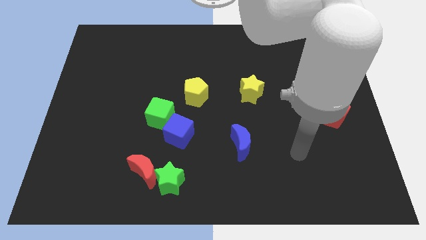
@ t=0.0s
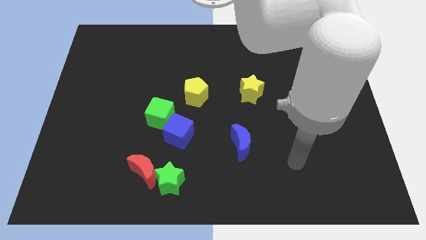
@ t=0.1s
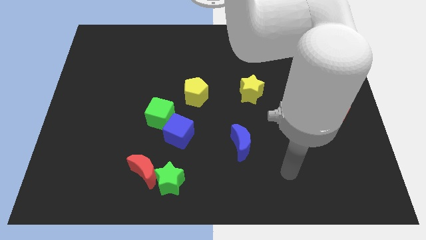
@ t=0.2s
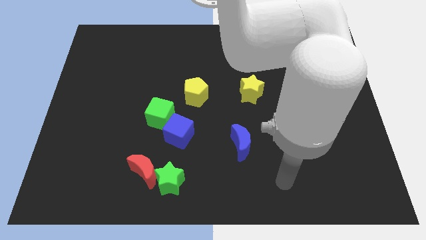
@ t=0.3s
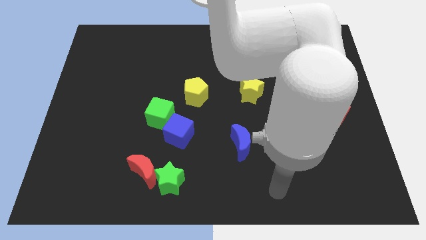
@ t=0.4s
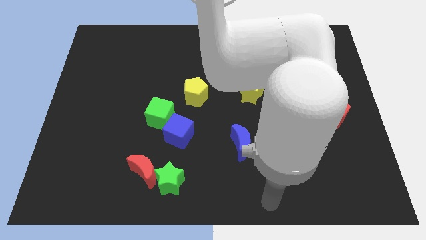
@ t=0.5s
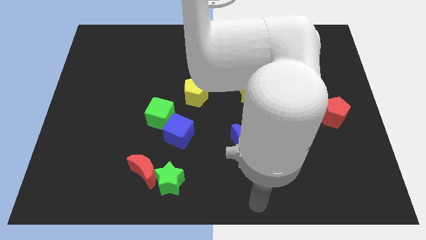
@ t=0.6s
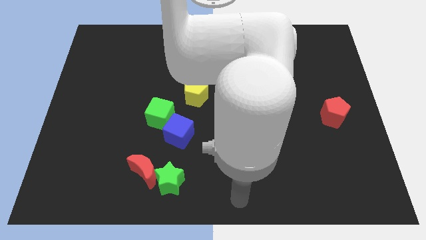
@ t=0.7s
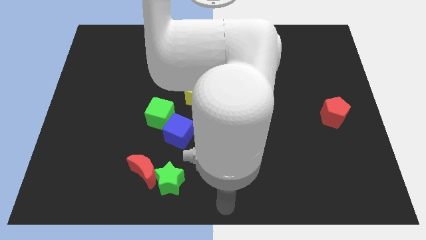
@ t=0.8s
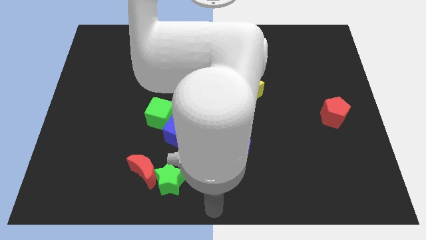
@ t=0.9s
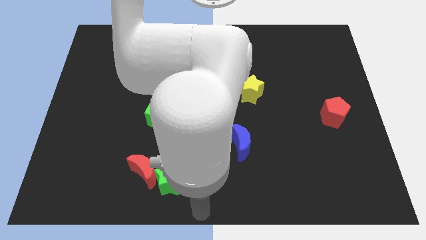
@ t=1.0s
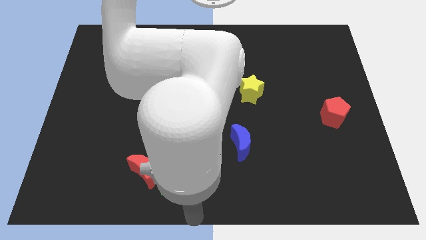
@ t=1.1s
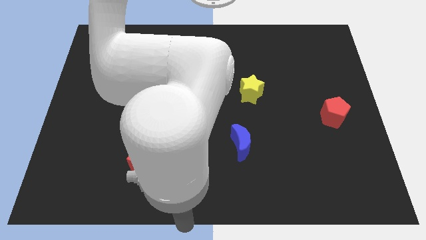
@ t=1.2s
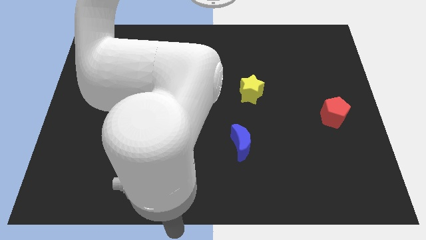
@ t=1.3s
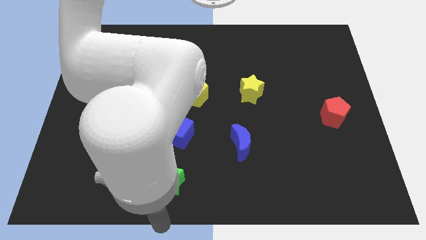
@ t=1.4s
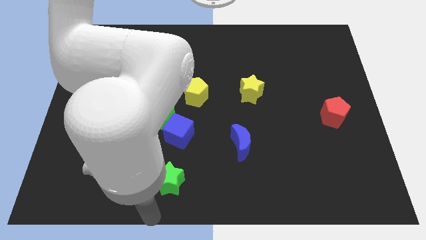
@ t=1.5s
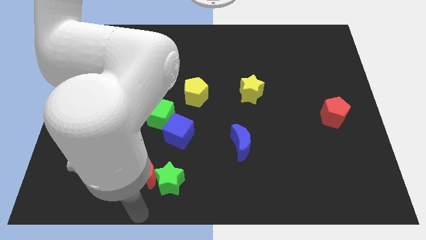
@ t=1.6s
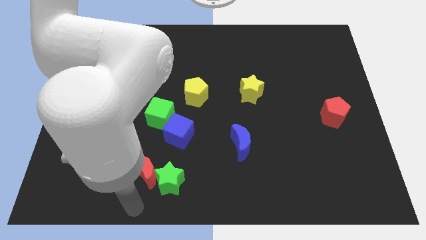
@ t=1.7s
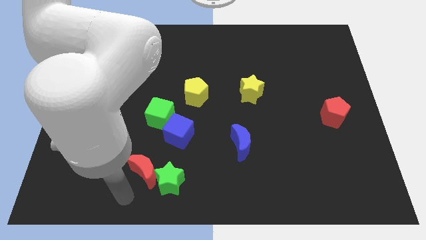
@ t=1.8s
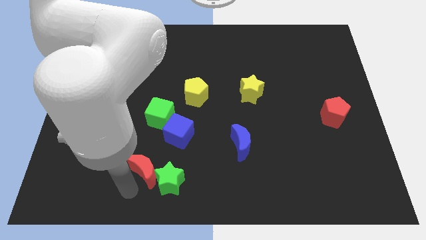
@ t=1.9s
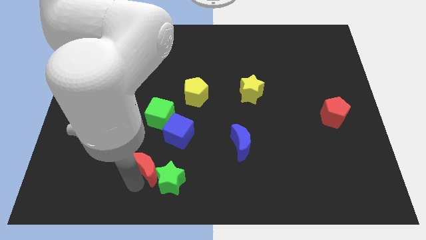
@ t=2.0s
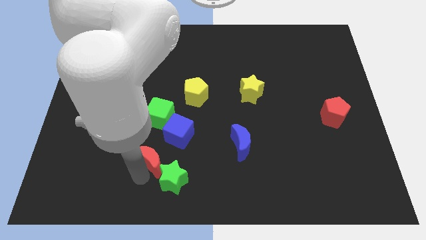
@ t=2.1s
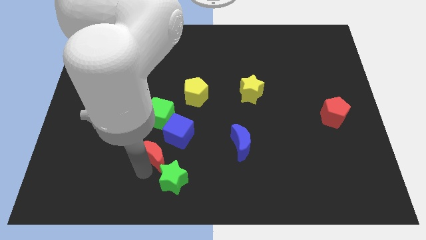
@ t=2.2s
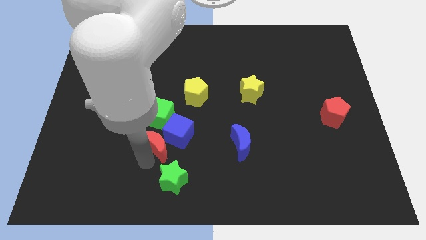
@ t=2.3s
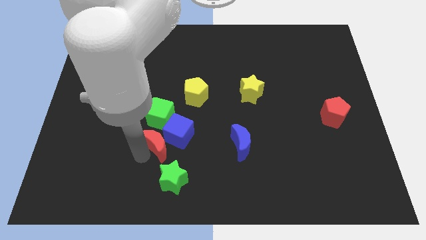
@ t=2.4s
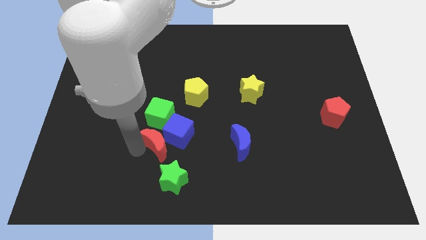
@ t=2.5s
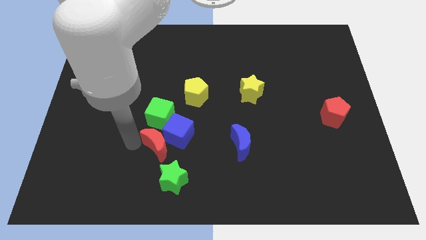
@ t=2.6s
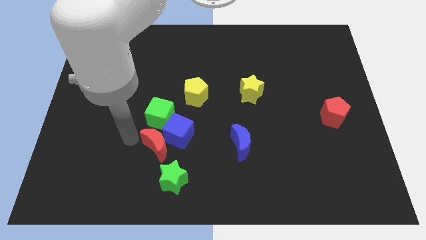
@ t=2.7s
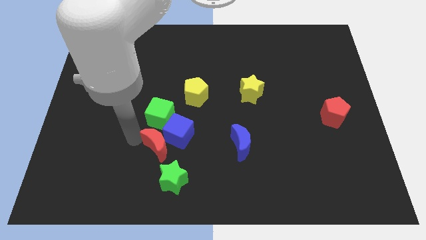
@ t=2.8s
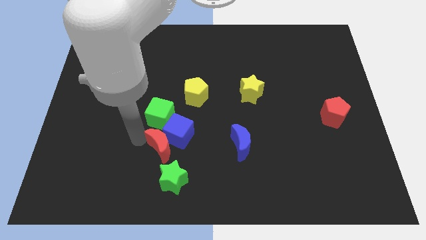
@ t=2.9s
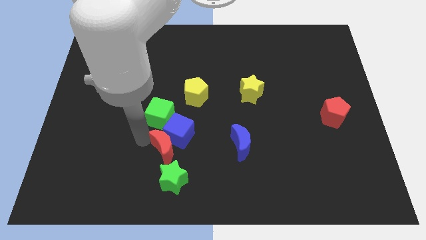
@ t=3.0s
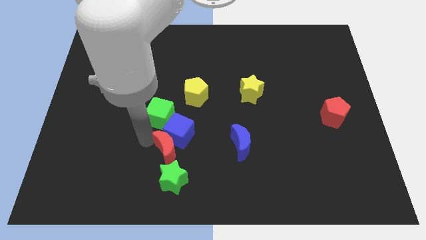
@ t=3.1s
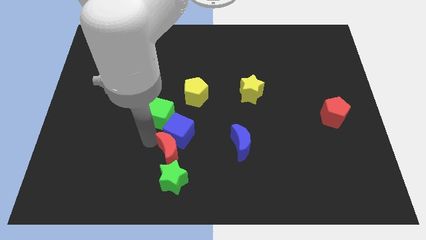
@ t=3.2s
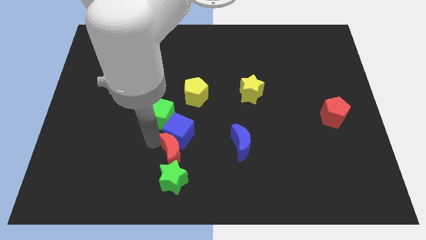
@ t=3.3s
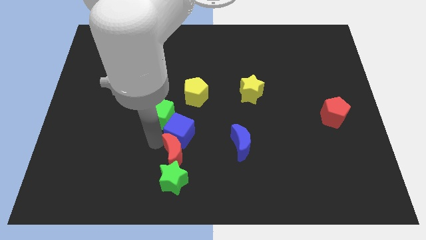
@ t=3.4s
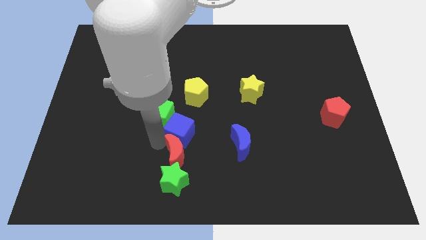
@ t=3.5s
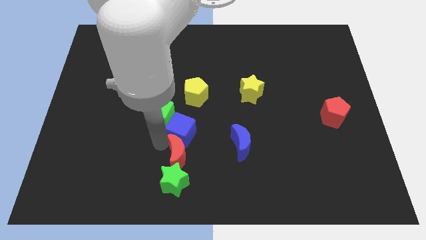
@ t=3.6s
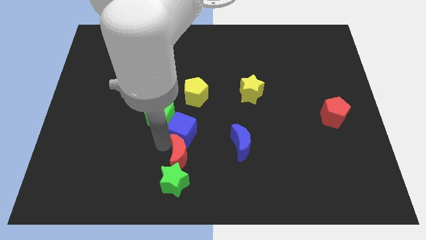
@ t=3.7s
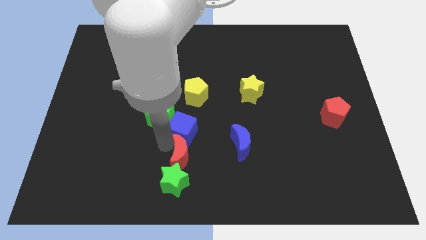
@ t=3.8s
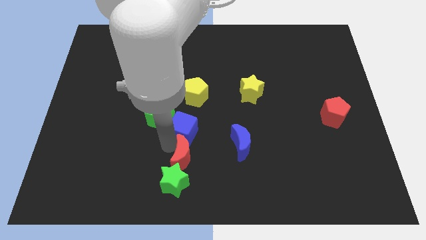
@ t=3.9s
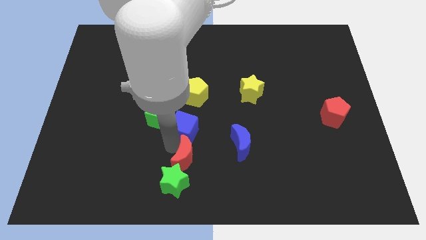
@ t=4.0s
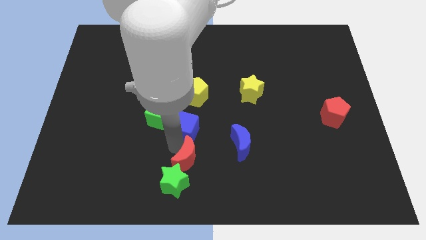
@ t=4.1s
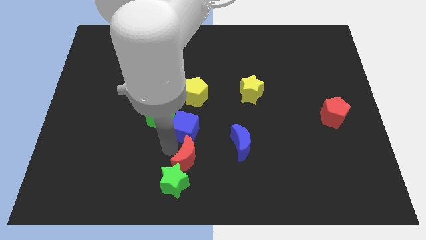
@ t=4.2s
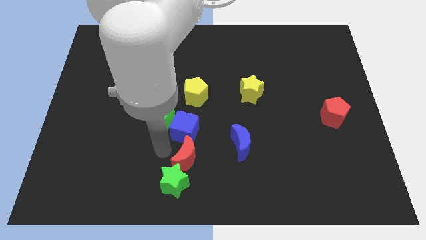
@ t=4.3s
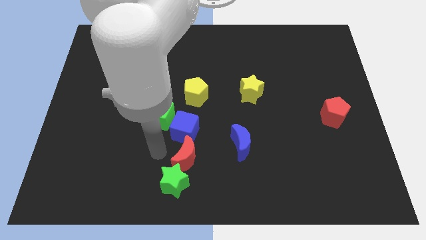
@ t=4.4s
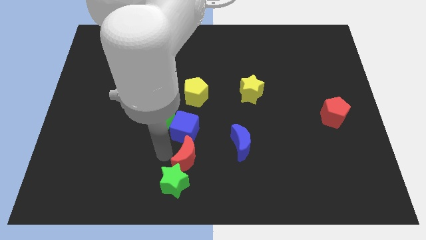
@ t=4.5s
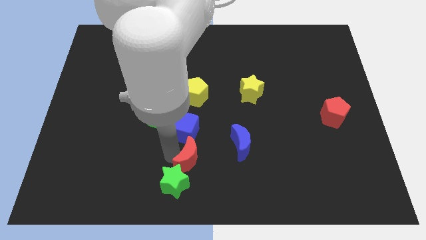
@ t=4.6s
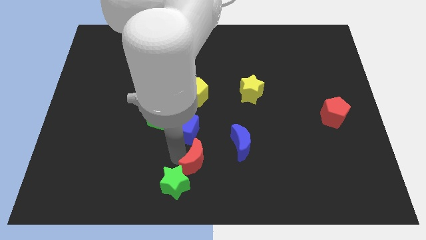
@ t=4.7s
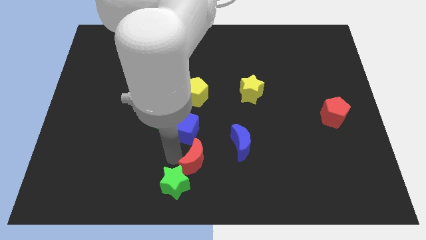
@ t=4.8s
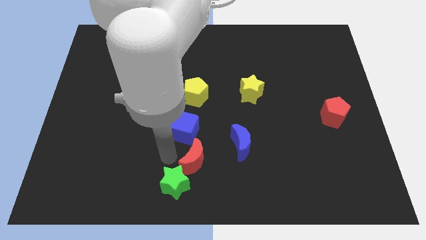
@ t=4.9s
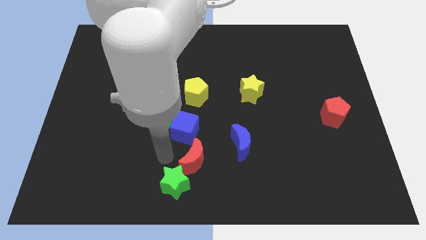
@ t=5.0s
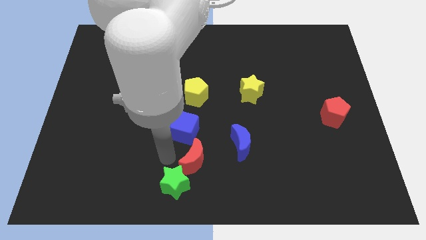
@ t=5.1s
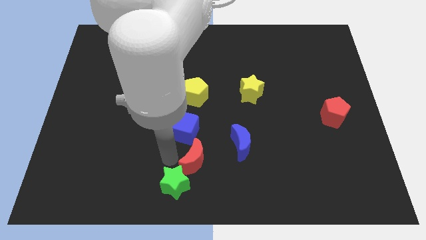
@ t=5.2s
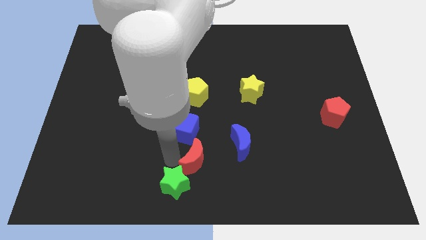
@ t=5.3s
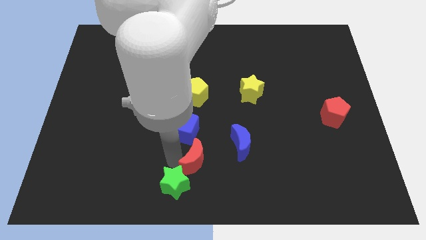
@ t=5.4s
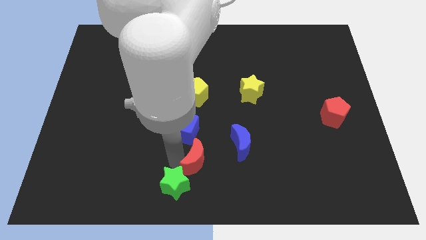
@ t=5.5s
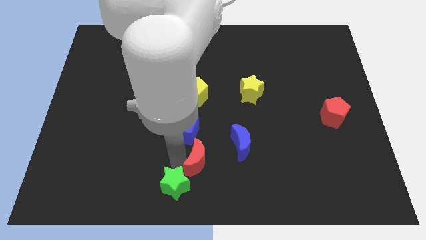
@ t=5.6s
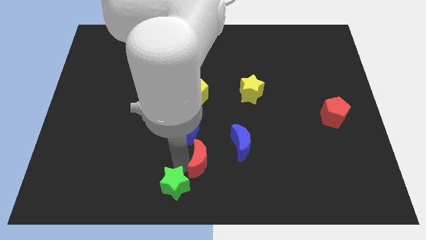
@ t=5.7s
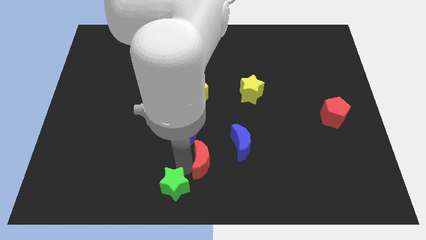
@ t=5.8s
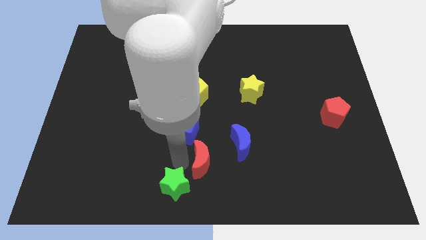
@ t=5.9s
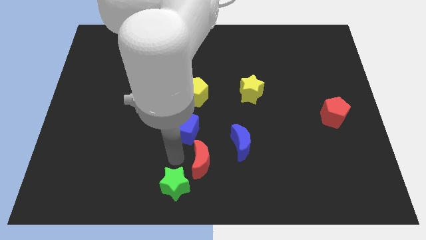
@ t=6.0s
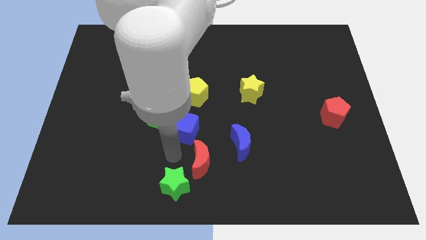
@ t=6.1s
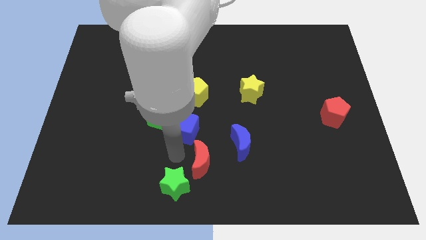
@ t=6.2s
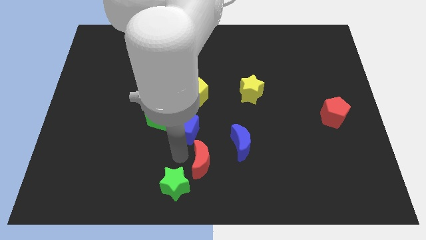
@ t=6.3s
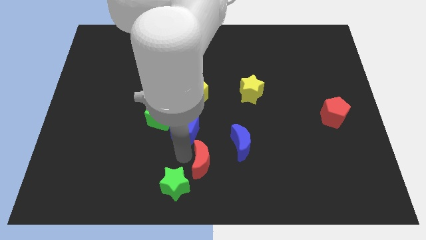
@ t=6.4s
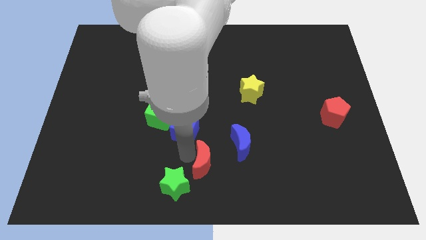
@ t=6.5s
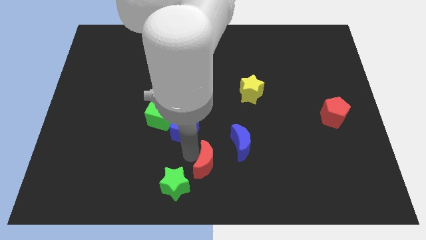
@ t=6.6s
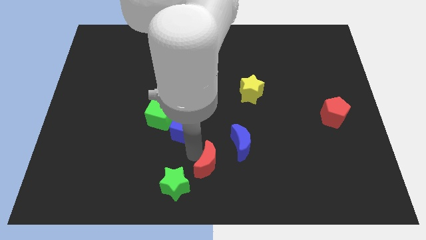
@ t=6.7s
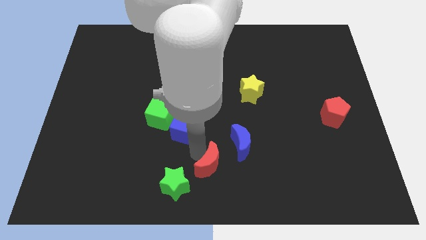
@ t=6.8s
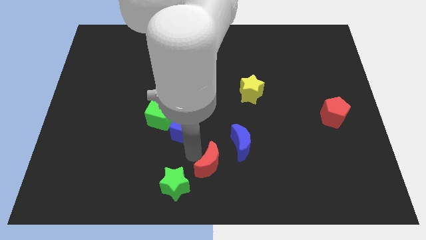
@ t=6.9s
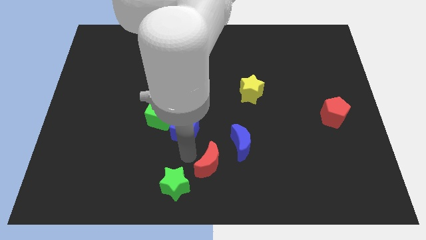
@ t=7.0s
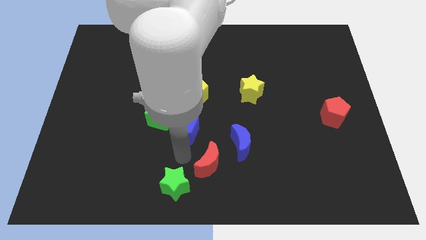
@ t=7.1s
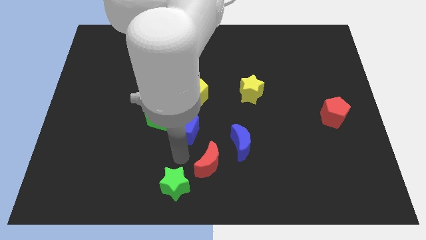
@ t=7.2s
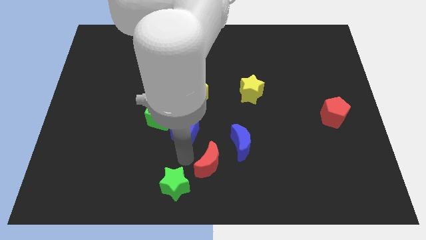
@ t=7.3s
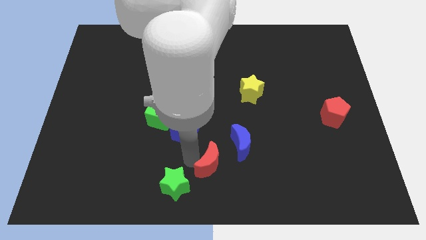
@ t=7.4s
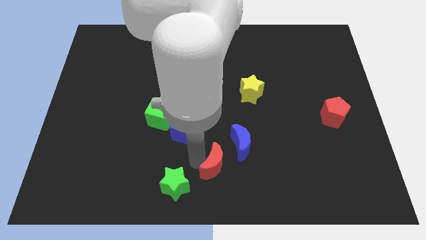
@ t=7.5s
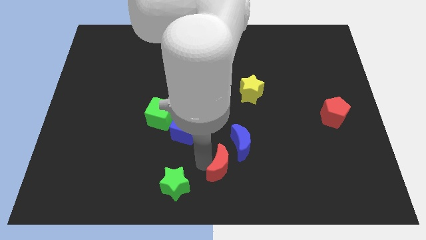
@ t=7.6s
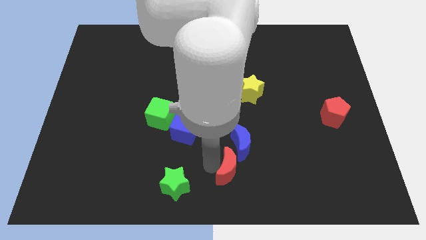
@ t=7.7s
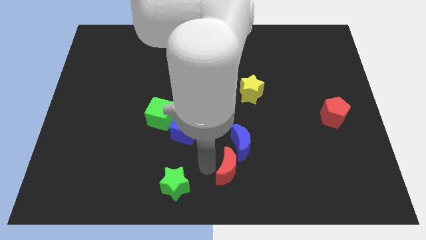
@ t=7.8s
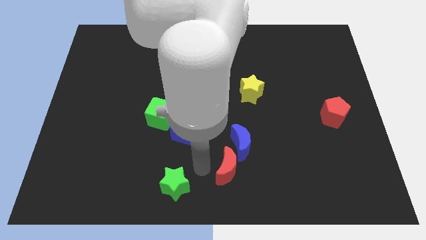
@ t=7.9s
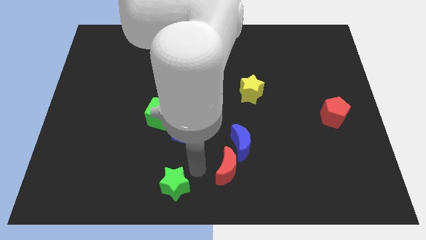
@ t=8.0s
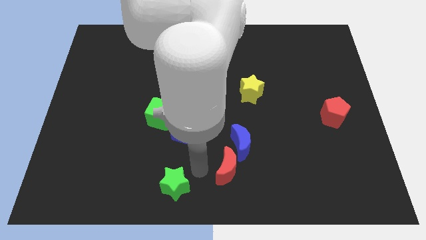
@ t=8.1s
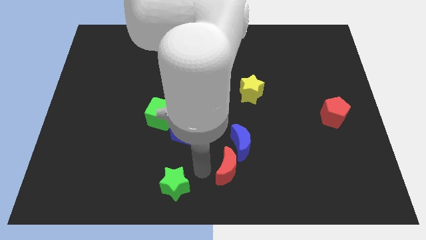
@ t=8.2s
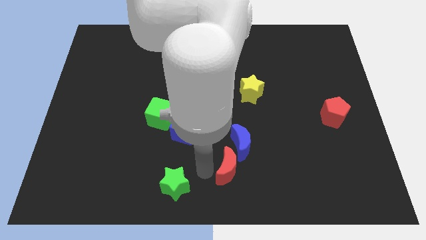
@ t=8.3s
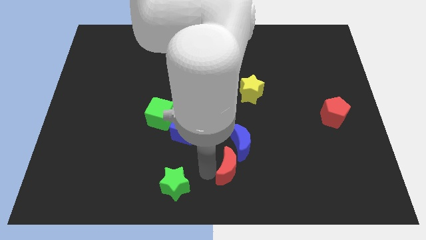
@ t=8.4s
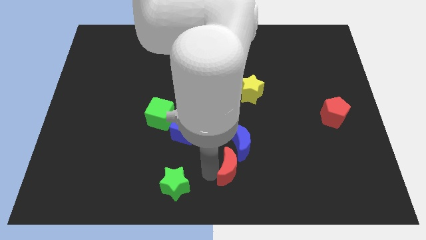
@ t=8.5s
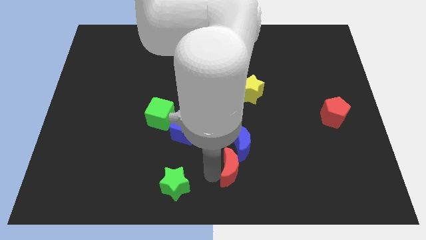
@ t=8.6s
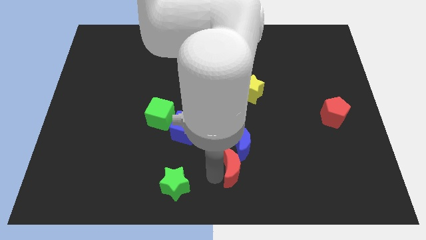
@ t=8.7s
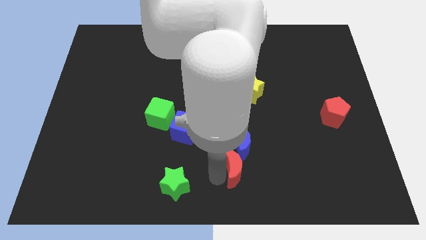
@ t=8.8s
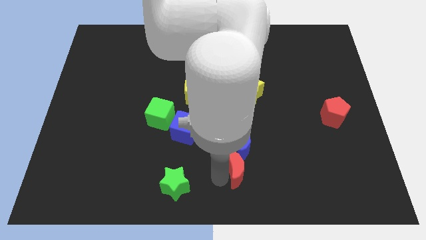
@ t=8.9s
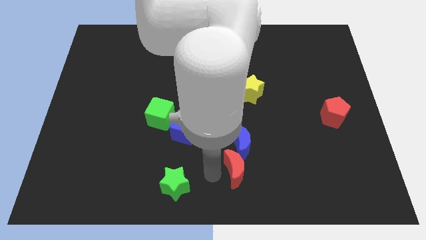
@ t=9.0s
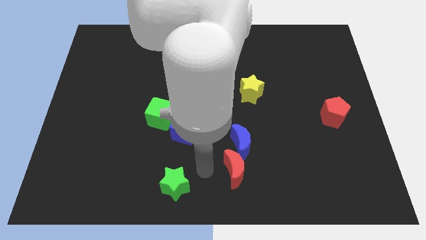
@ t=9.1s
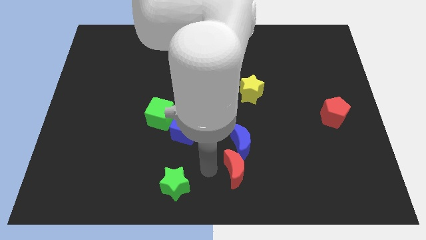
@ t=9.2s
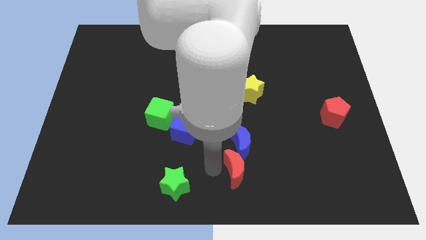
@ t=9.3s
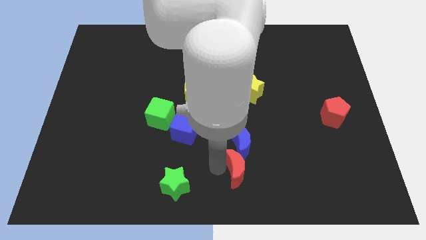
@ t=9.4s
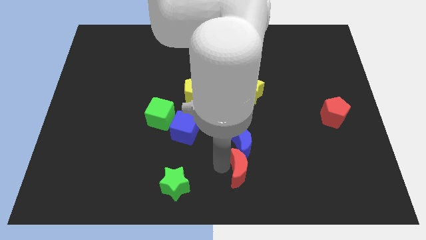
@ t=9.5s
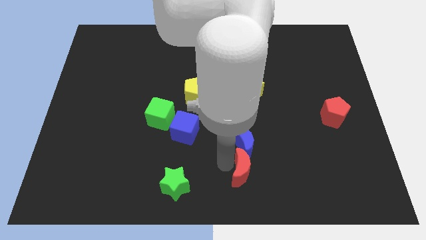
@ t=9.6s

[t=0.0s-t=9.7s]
move the red moon right
